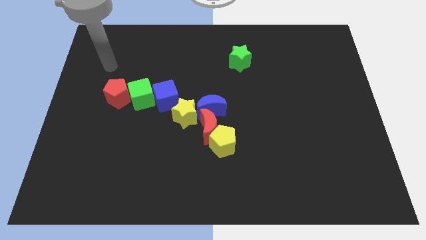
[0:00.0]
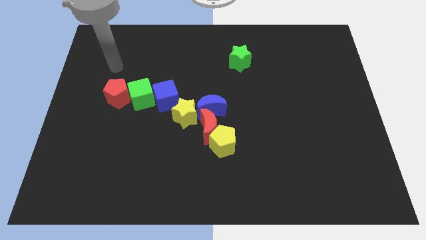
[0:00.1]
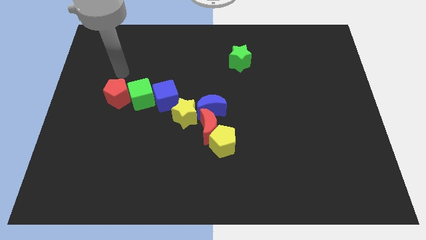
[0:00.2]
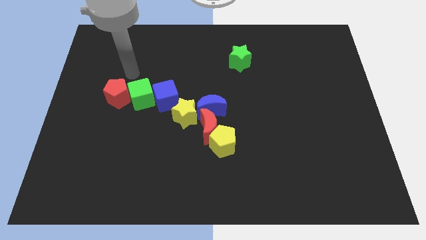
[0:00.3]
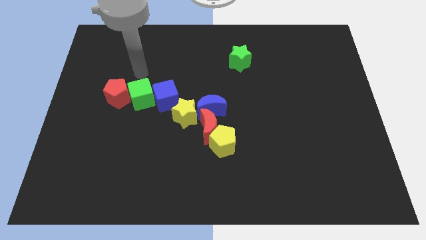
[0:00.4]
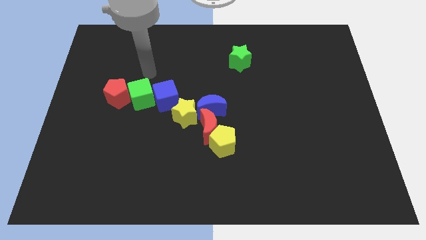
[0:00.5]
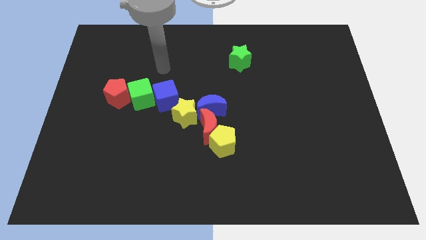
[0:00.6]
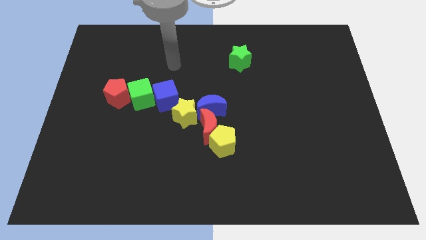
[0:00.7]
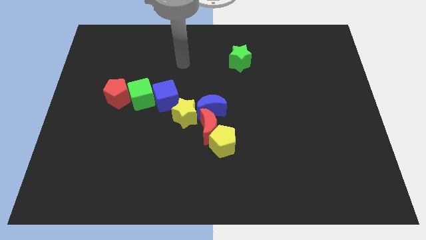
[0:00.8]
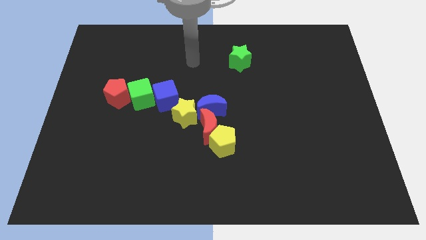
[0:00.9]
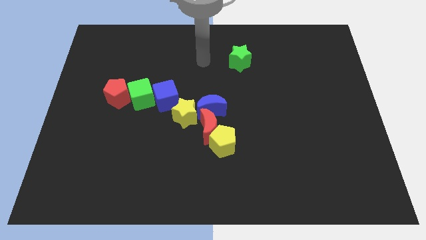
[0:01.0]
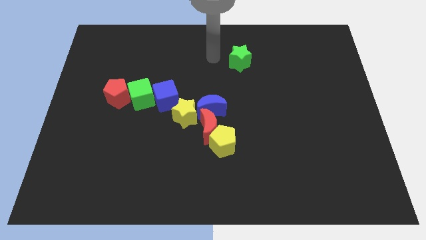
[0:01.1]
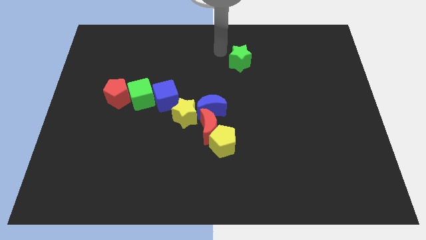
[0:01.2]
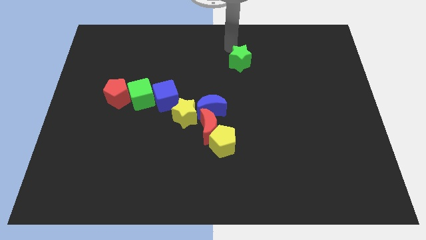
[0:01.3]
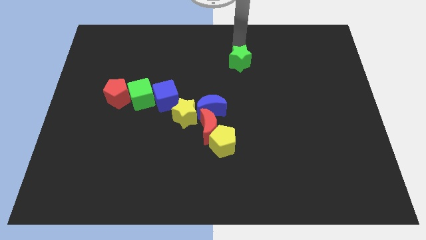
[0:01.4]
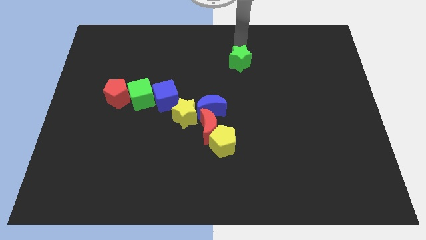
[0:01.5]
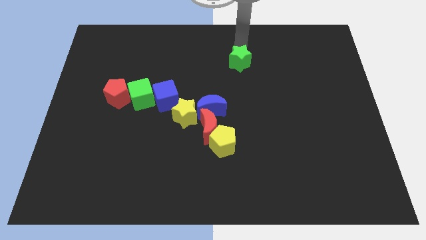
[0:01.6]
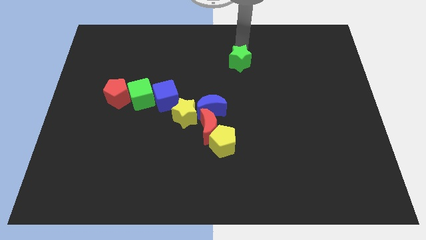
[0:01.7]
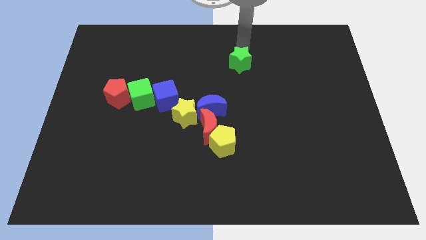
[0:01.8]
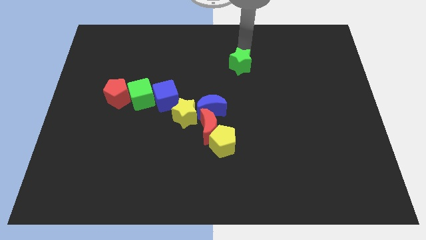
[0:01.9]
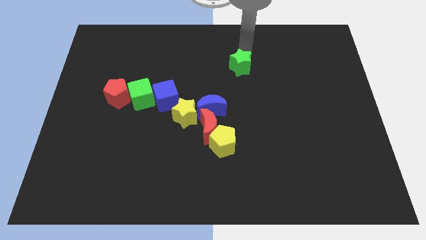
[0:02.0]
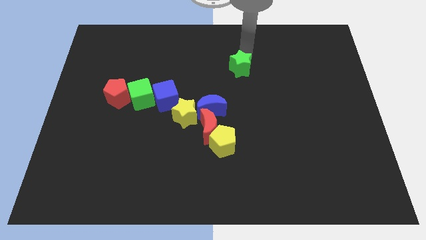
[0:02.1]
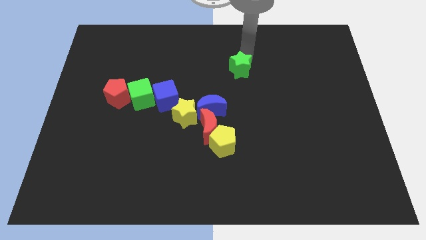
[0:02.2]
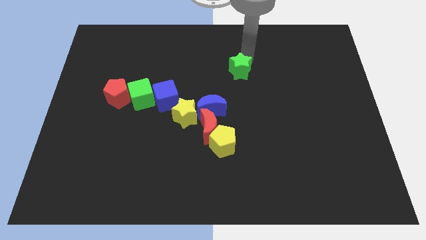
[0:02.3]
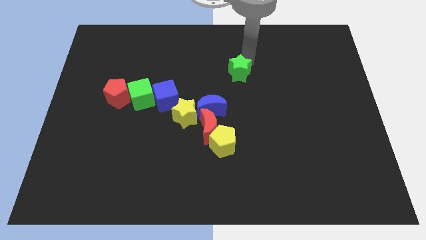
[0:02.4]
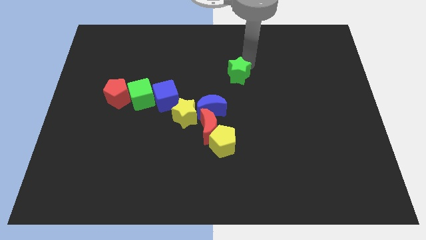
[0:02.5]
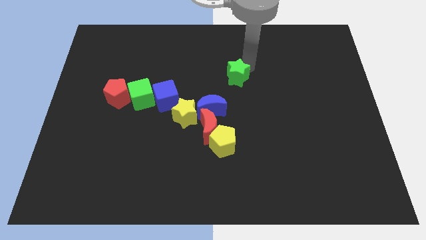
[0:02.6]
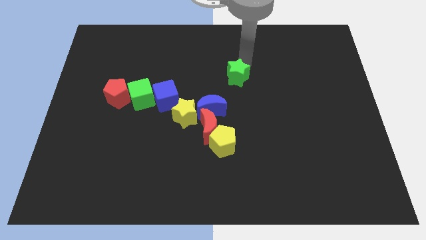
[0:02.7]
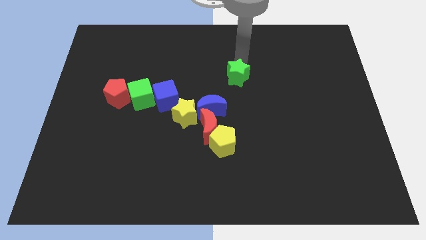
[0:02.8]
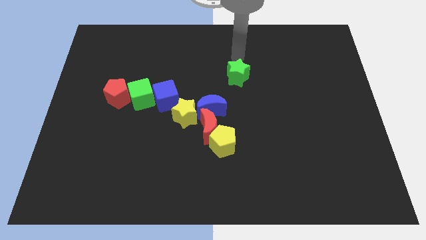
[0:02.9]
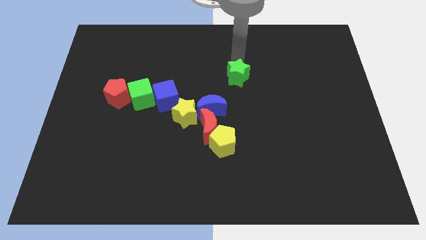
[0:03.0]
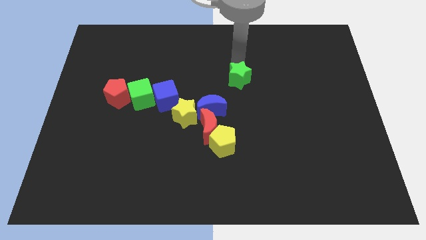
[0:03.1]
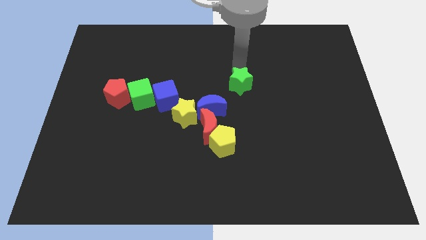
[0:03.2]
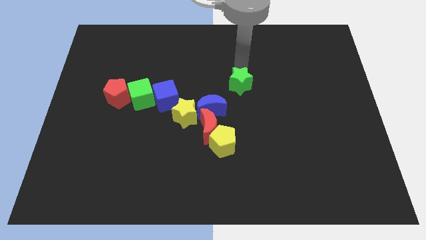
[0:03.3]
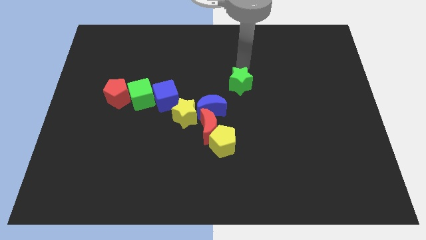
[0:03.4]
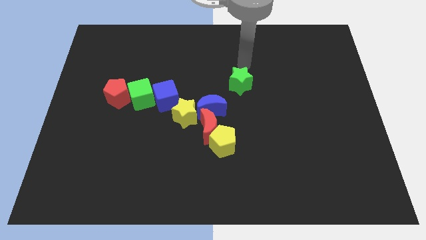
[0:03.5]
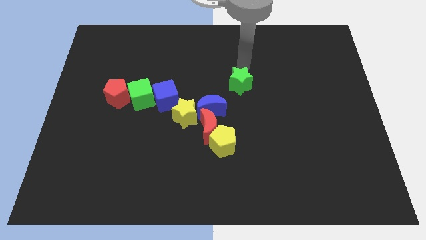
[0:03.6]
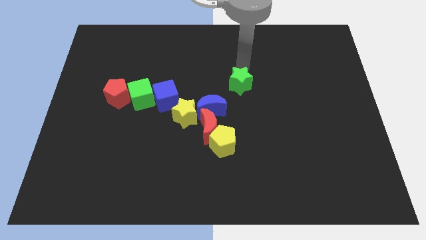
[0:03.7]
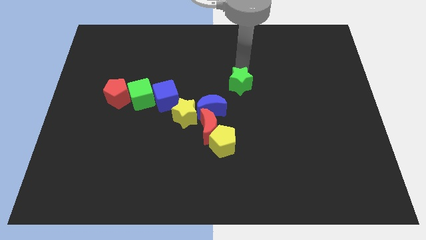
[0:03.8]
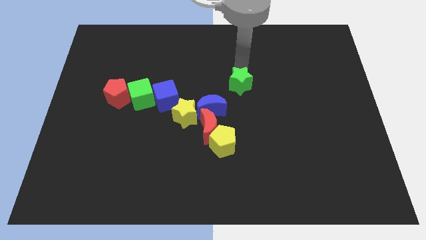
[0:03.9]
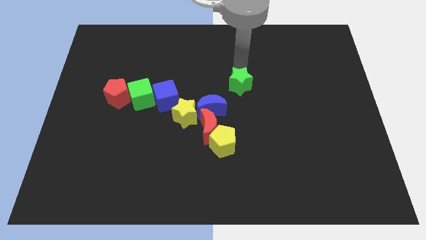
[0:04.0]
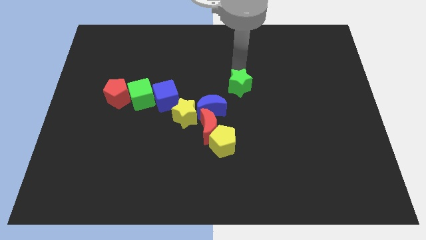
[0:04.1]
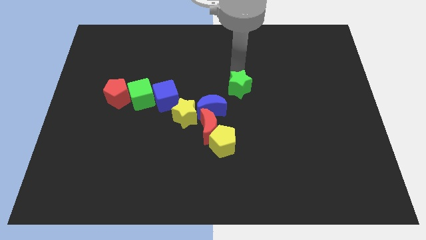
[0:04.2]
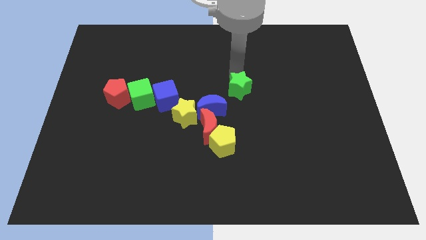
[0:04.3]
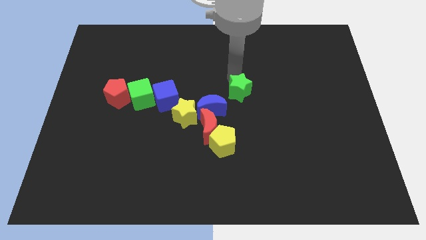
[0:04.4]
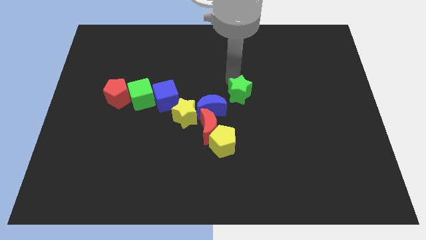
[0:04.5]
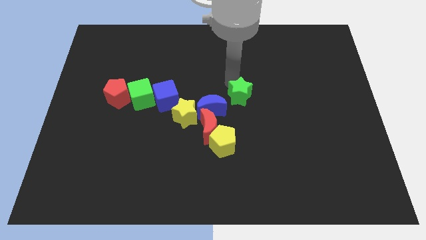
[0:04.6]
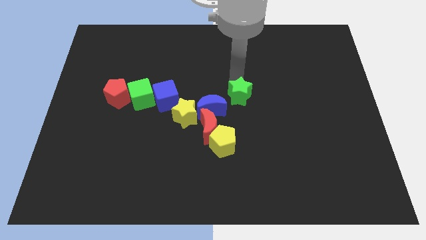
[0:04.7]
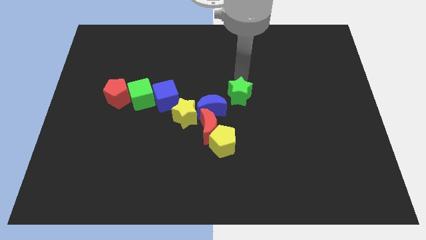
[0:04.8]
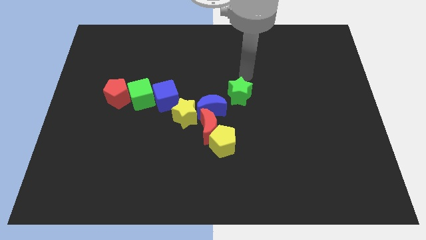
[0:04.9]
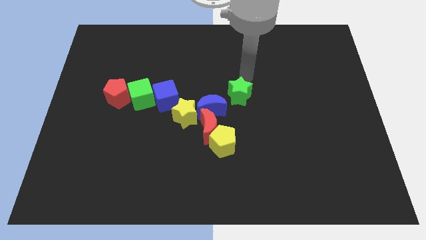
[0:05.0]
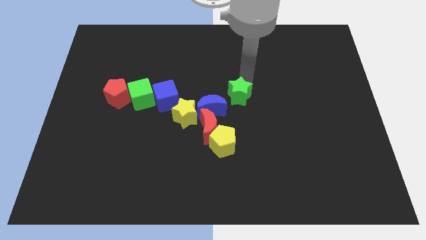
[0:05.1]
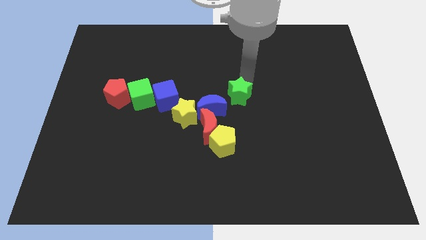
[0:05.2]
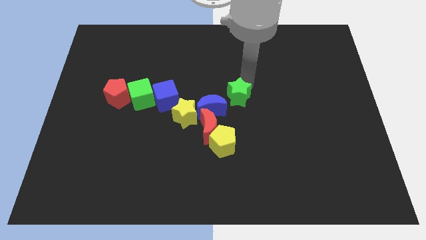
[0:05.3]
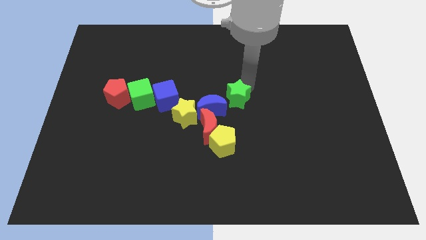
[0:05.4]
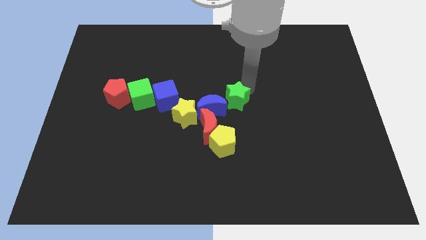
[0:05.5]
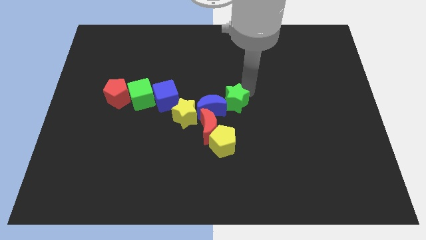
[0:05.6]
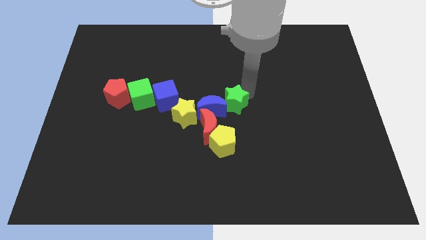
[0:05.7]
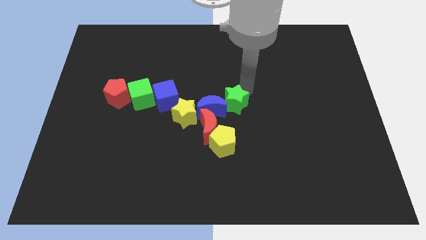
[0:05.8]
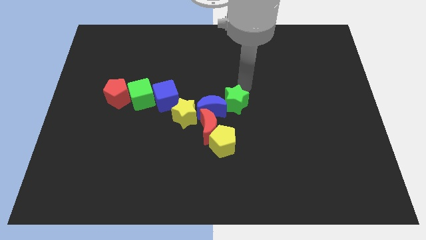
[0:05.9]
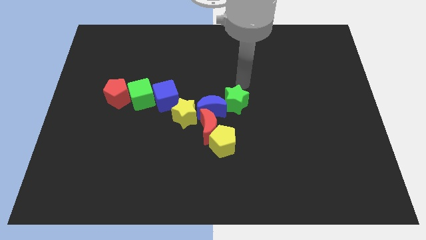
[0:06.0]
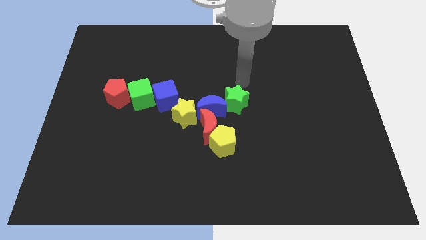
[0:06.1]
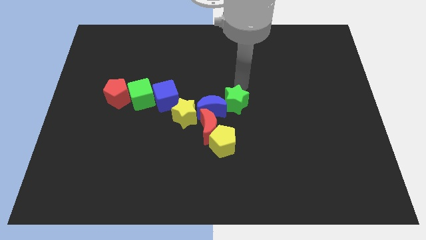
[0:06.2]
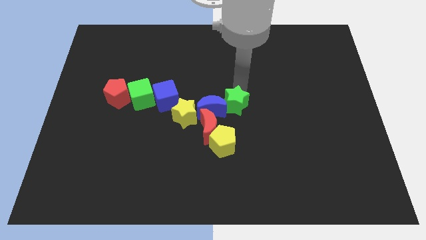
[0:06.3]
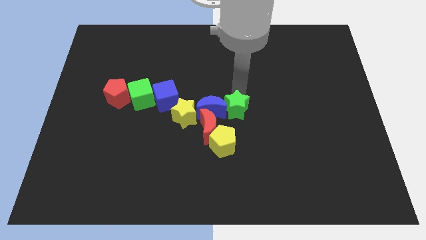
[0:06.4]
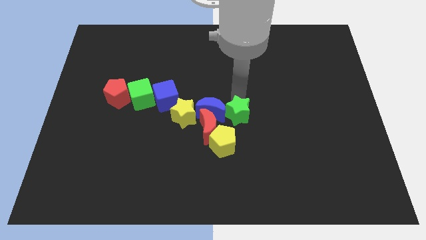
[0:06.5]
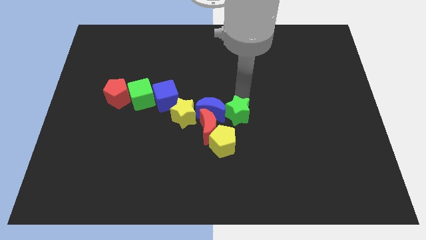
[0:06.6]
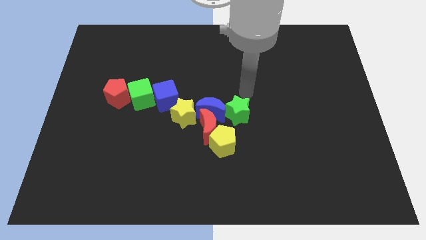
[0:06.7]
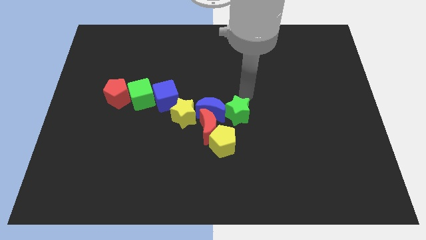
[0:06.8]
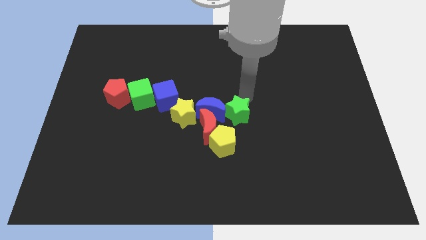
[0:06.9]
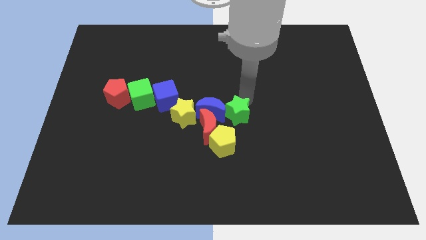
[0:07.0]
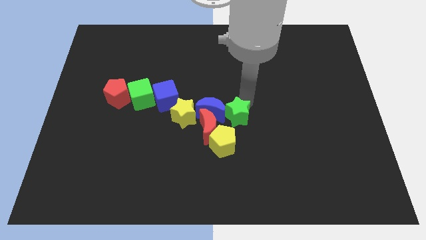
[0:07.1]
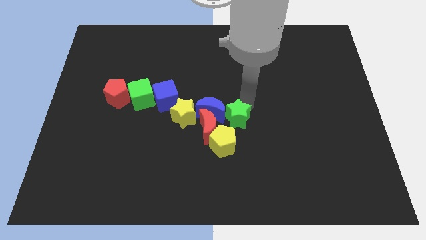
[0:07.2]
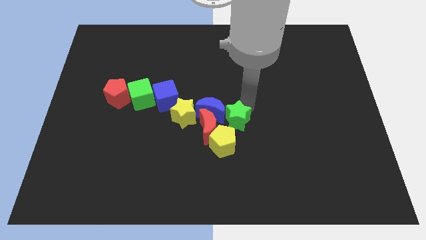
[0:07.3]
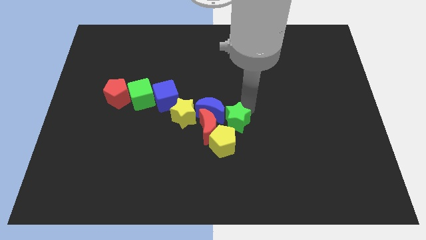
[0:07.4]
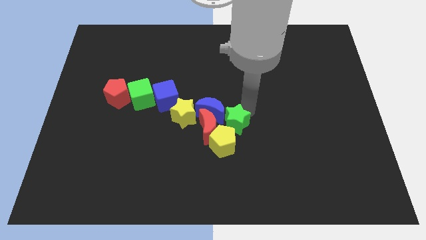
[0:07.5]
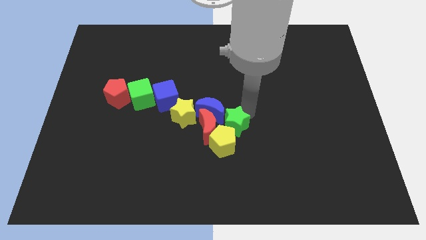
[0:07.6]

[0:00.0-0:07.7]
move the green star close to the yellow pentagon
